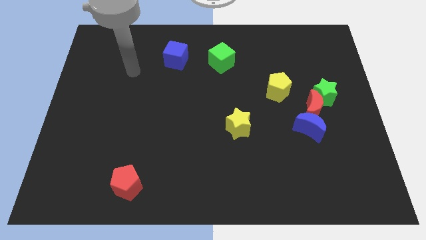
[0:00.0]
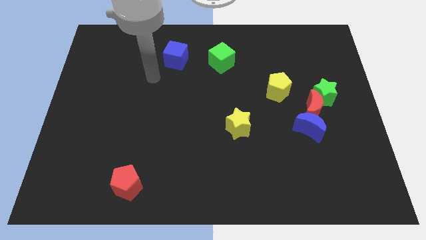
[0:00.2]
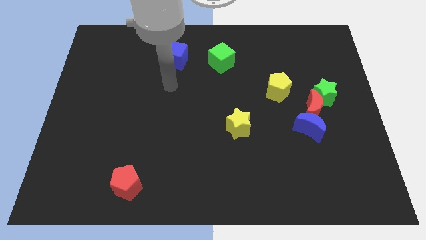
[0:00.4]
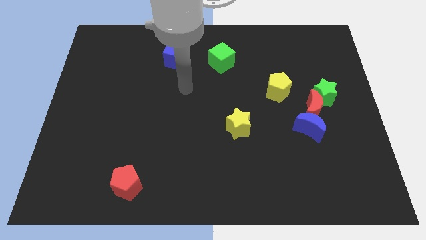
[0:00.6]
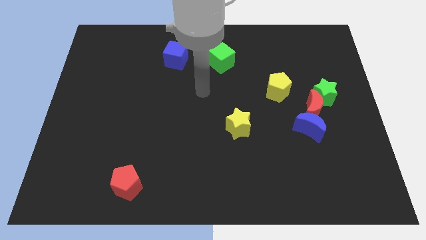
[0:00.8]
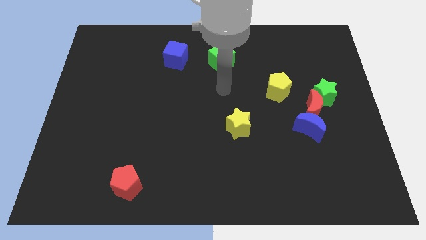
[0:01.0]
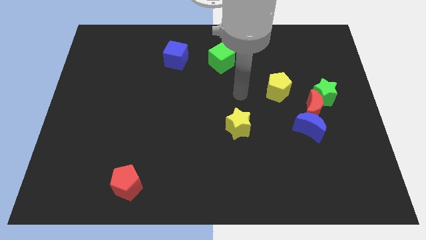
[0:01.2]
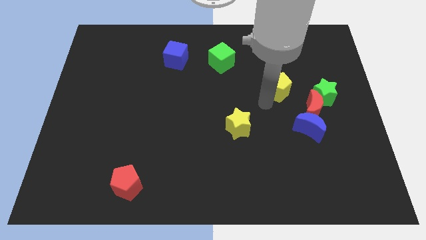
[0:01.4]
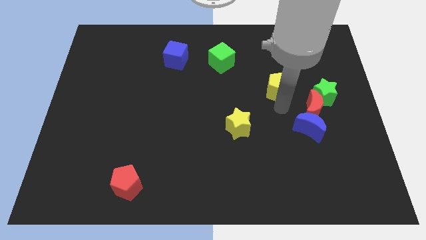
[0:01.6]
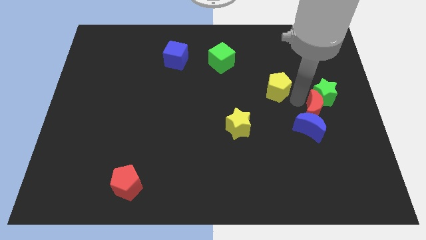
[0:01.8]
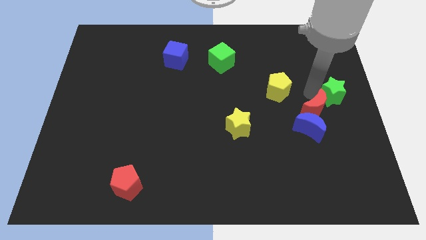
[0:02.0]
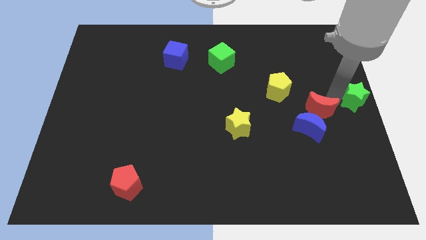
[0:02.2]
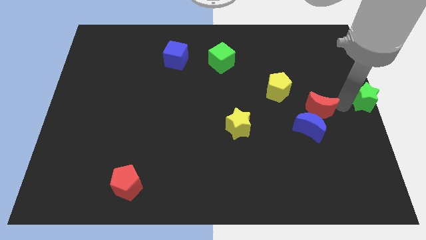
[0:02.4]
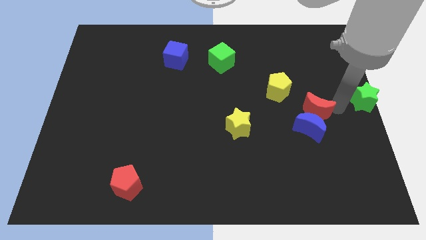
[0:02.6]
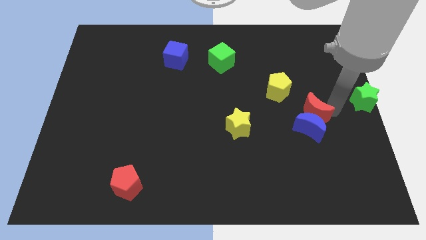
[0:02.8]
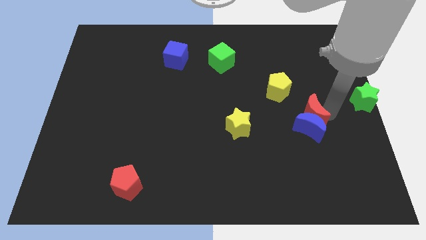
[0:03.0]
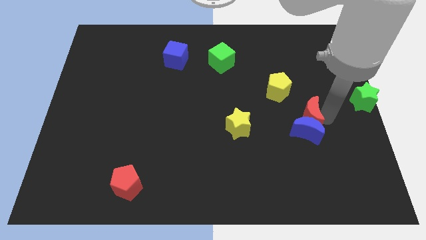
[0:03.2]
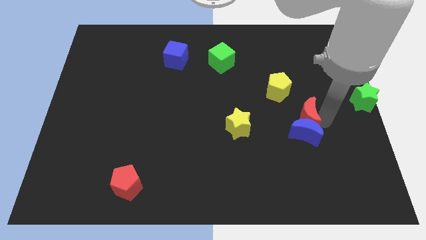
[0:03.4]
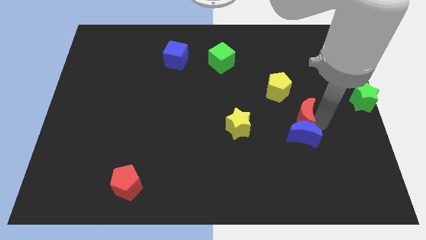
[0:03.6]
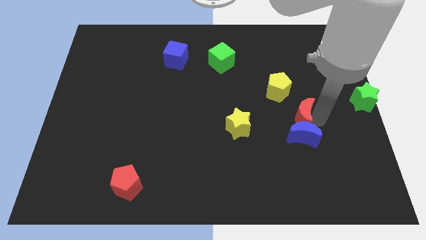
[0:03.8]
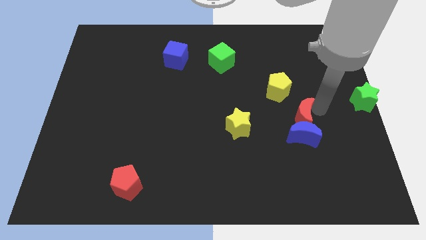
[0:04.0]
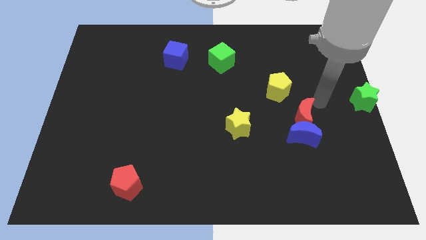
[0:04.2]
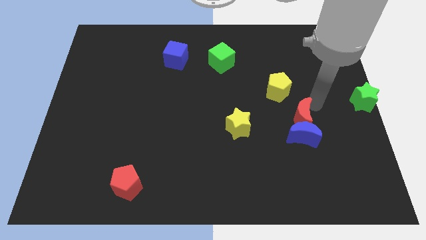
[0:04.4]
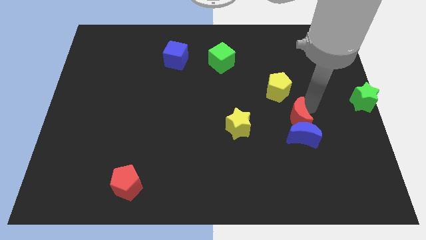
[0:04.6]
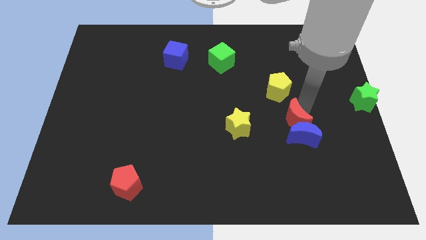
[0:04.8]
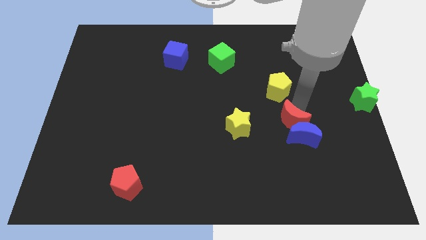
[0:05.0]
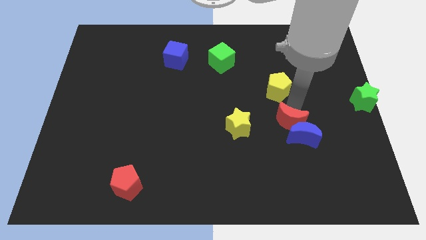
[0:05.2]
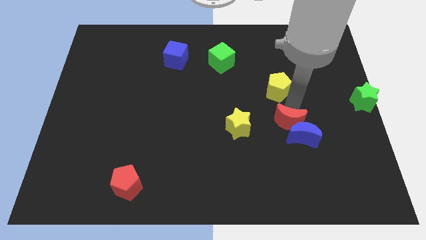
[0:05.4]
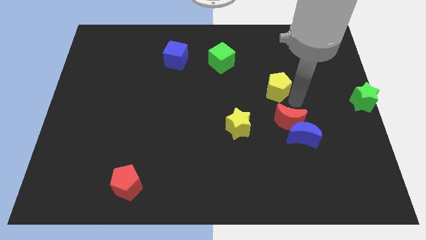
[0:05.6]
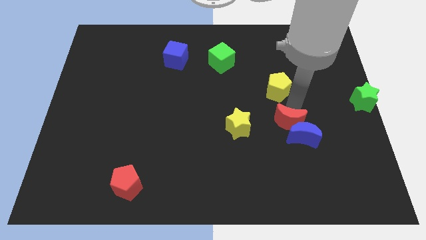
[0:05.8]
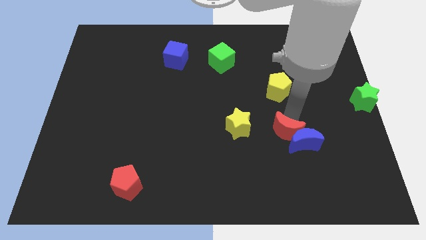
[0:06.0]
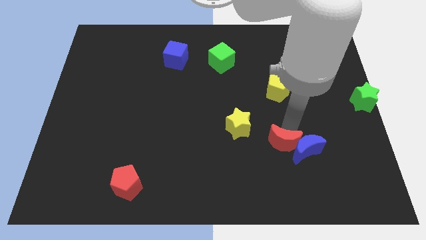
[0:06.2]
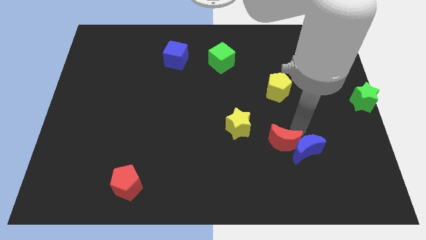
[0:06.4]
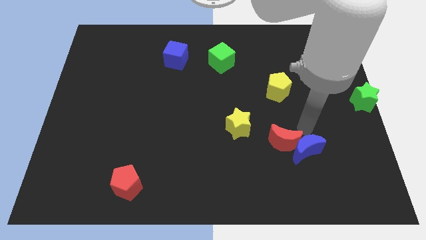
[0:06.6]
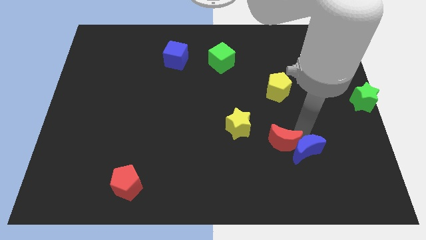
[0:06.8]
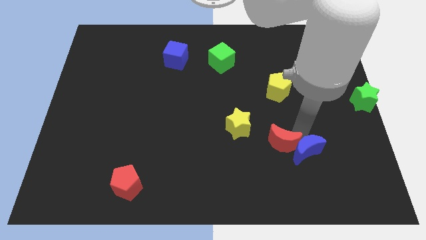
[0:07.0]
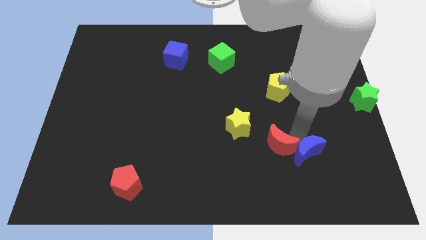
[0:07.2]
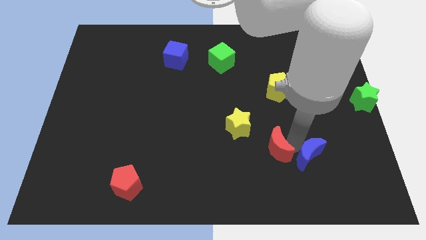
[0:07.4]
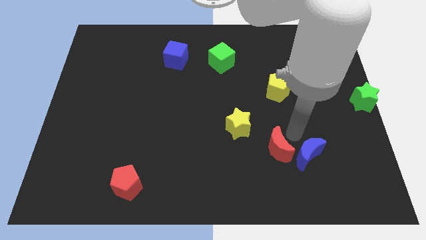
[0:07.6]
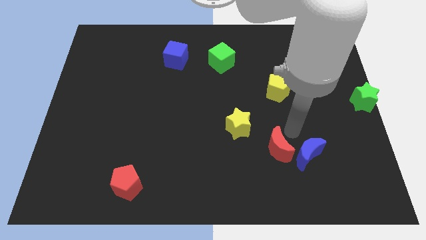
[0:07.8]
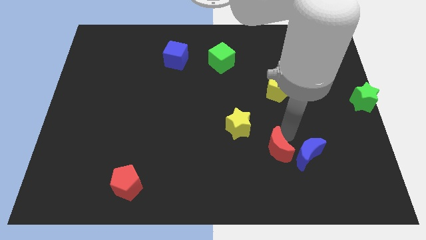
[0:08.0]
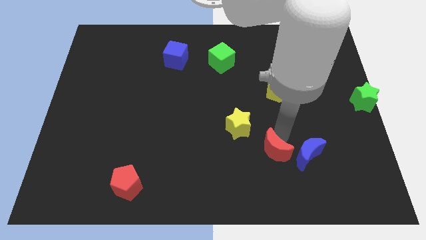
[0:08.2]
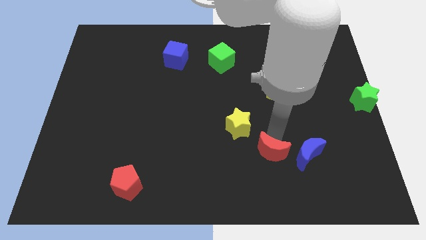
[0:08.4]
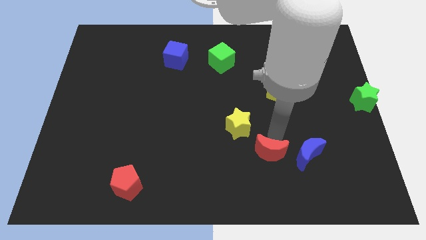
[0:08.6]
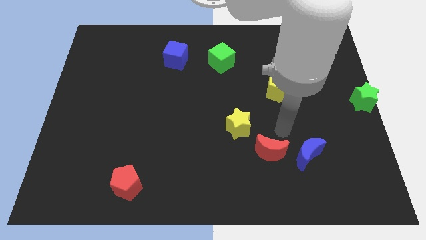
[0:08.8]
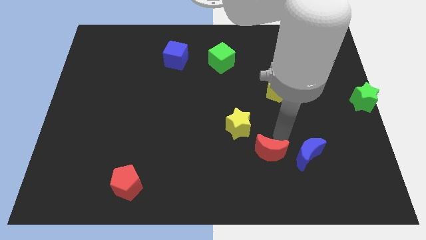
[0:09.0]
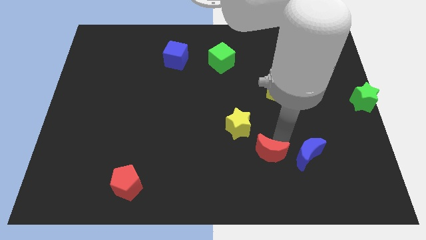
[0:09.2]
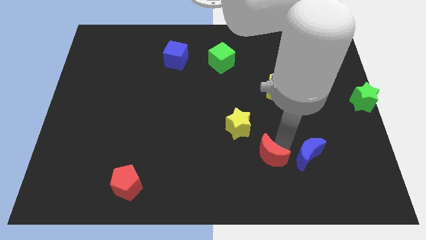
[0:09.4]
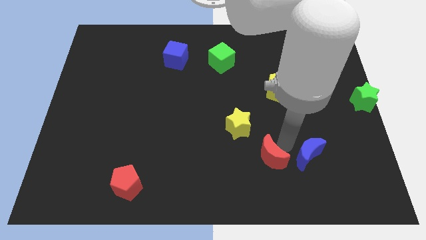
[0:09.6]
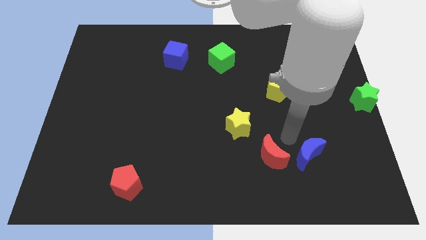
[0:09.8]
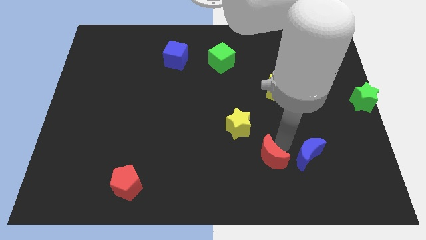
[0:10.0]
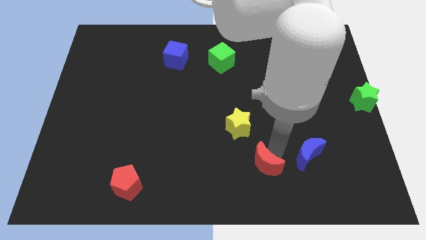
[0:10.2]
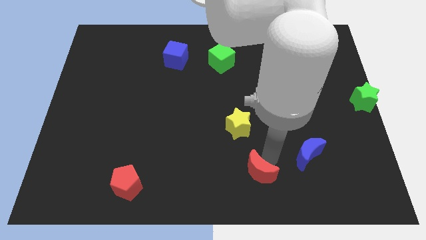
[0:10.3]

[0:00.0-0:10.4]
put the red moon to the bottom

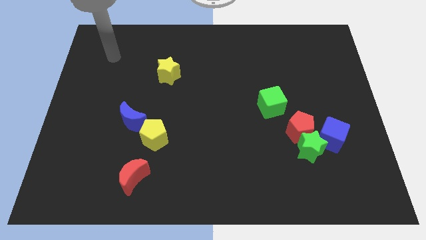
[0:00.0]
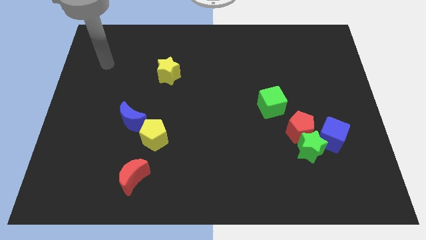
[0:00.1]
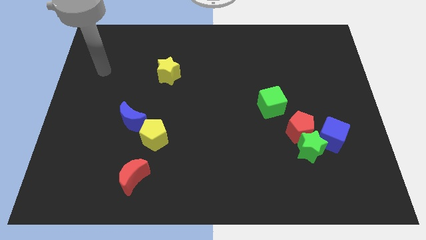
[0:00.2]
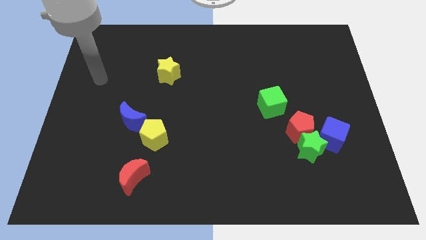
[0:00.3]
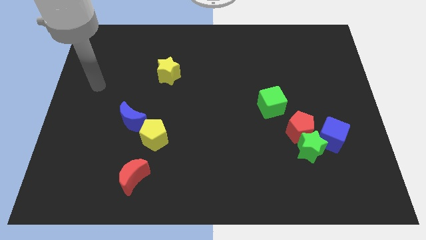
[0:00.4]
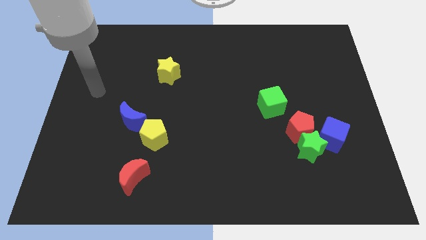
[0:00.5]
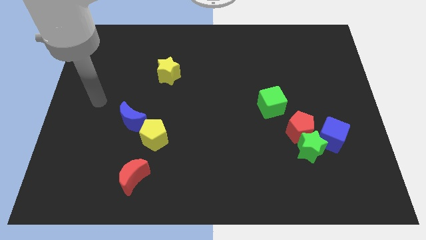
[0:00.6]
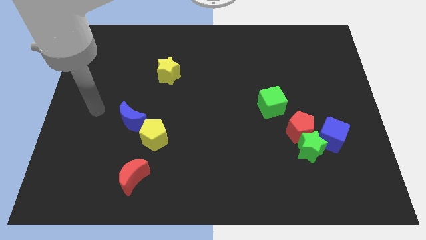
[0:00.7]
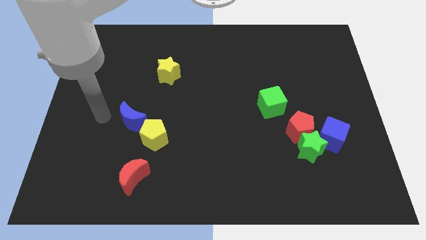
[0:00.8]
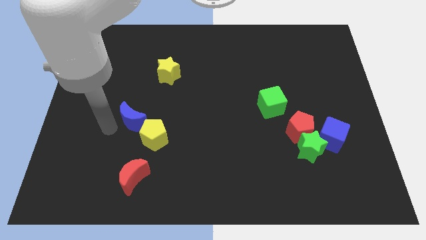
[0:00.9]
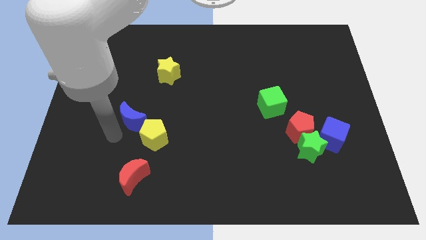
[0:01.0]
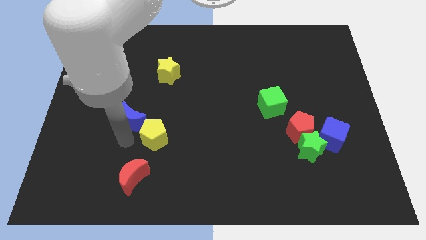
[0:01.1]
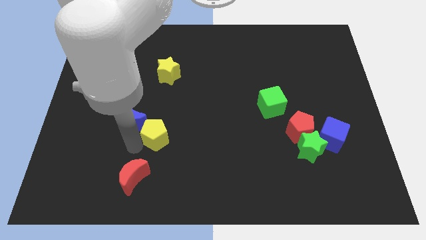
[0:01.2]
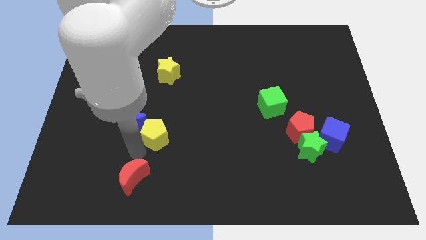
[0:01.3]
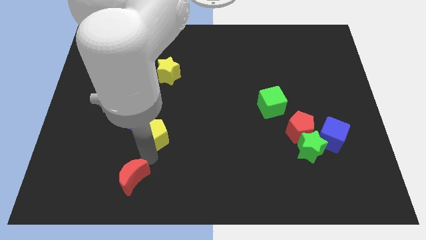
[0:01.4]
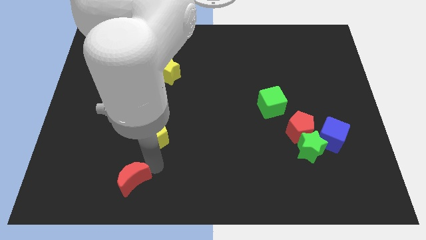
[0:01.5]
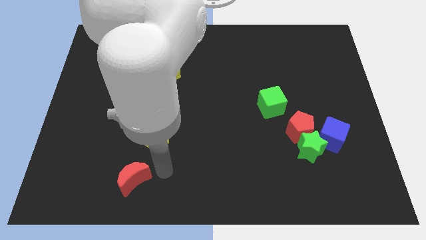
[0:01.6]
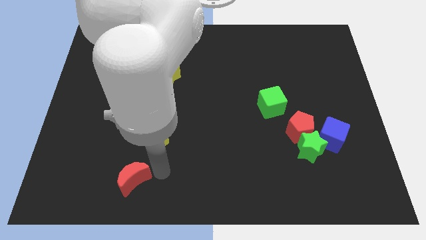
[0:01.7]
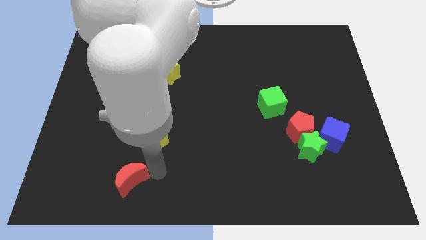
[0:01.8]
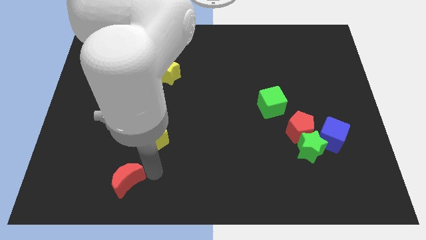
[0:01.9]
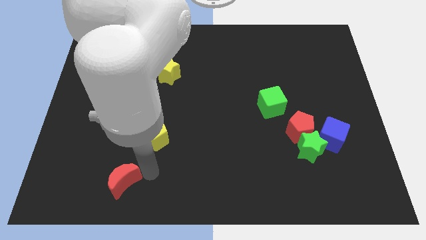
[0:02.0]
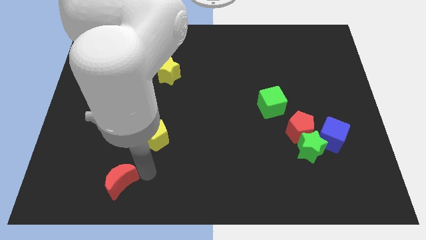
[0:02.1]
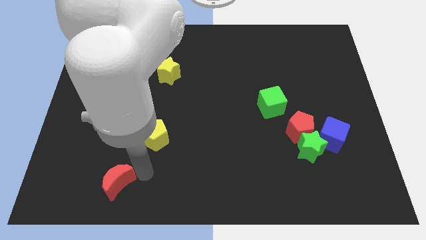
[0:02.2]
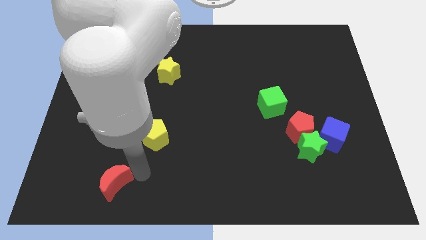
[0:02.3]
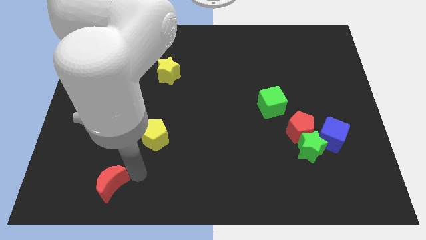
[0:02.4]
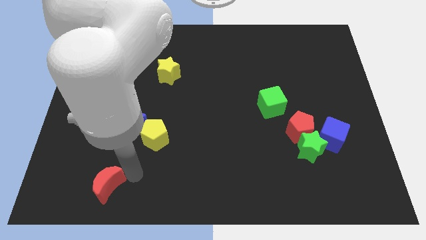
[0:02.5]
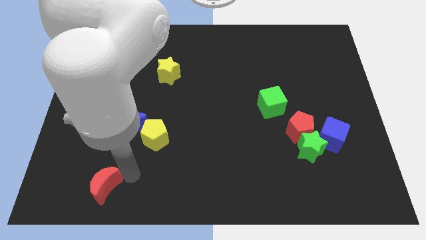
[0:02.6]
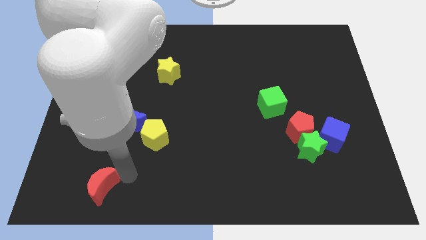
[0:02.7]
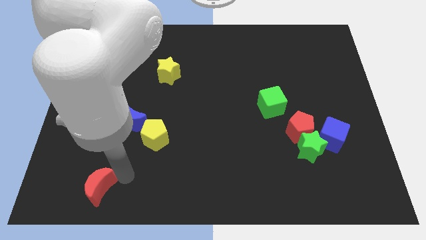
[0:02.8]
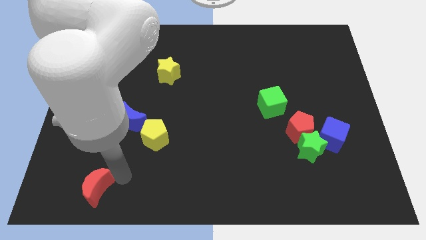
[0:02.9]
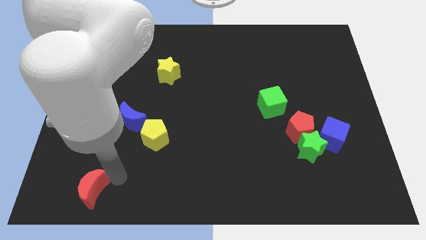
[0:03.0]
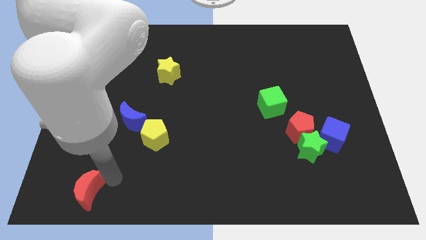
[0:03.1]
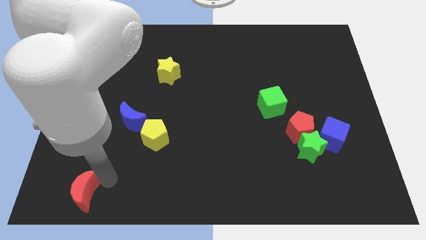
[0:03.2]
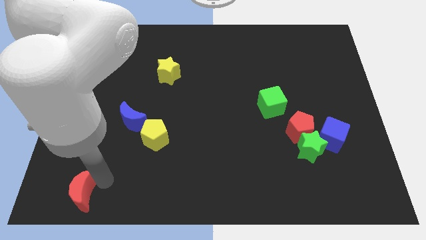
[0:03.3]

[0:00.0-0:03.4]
slide the red moon to the bottom left corner
